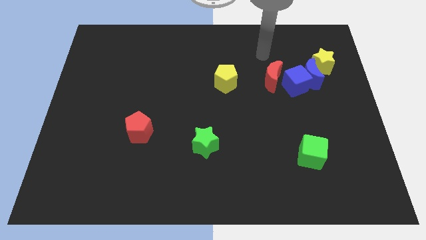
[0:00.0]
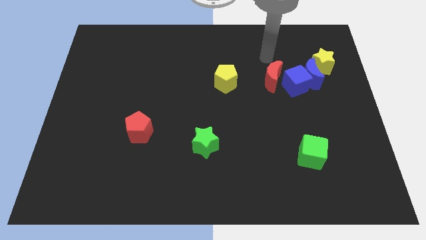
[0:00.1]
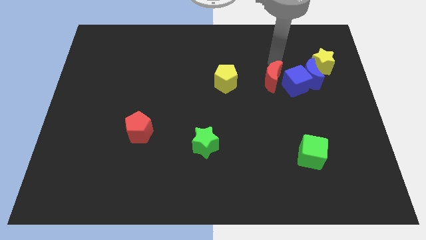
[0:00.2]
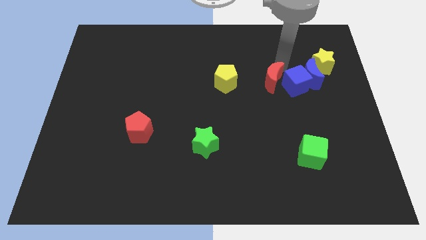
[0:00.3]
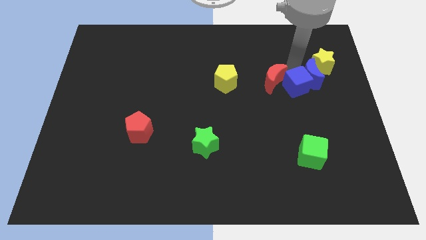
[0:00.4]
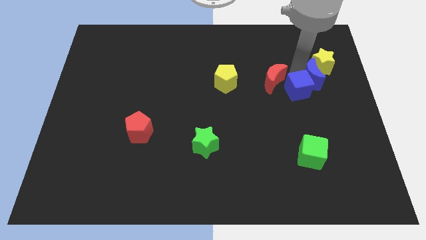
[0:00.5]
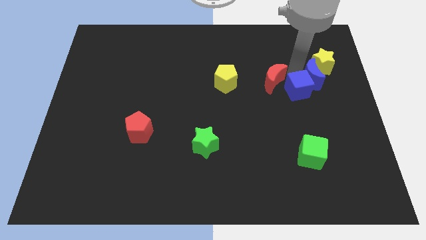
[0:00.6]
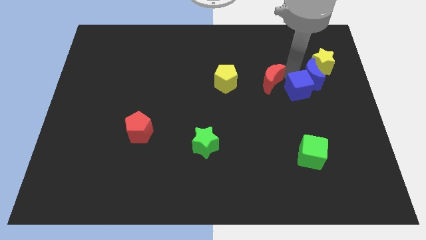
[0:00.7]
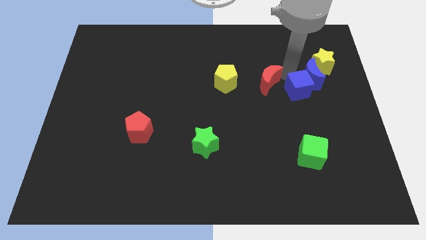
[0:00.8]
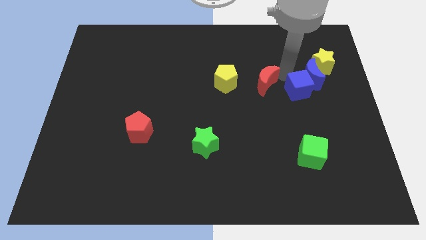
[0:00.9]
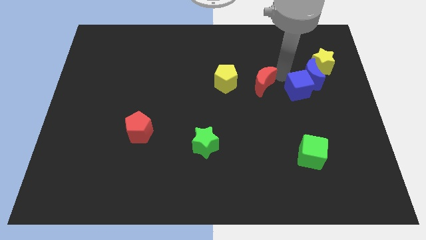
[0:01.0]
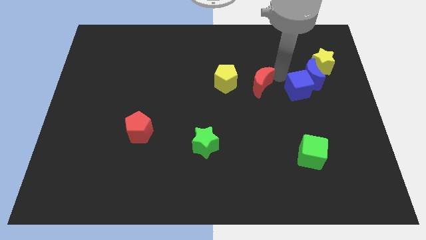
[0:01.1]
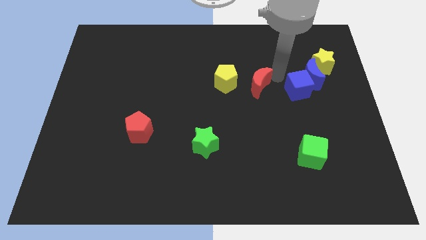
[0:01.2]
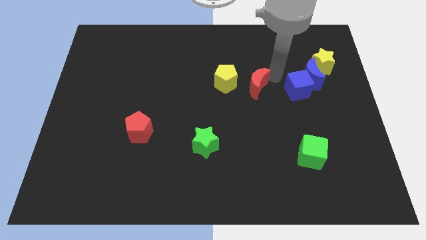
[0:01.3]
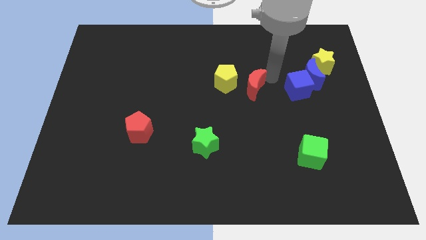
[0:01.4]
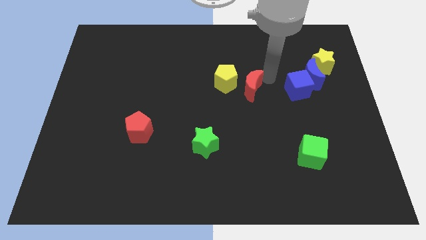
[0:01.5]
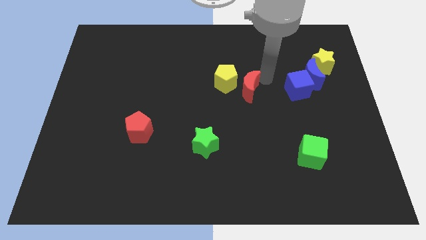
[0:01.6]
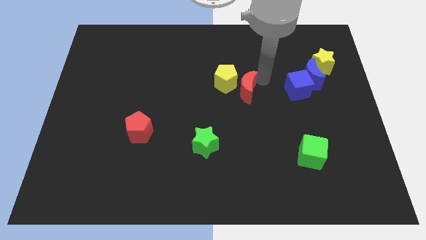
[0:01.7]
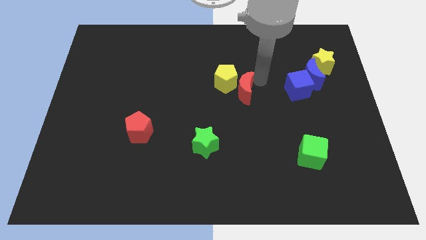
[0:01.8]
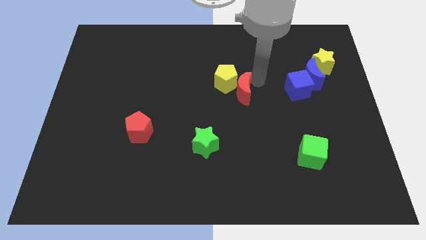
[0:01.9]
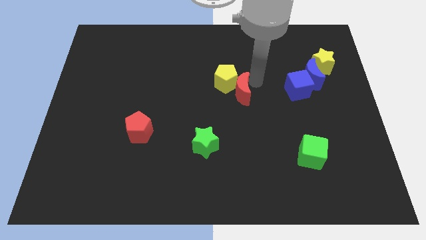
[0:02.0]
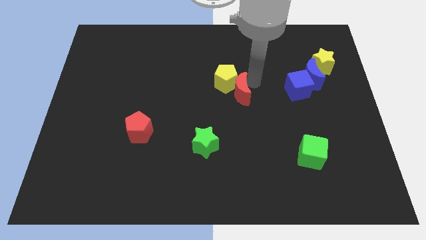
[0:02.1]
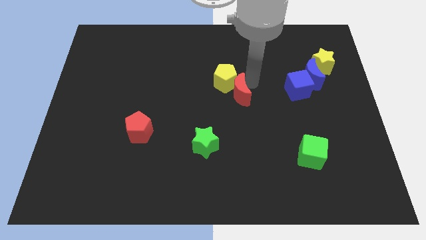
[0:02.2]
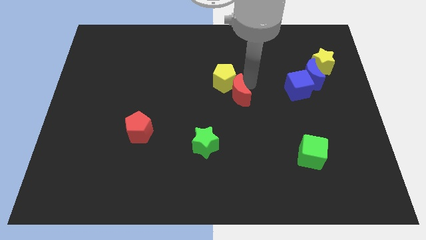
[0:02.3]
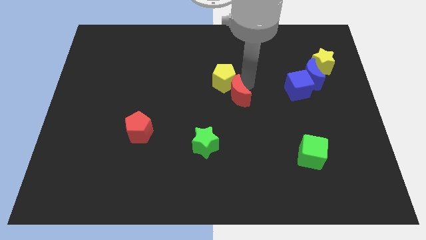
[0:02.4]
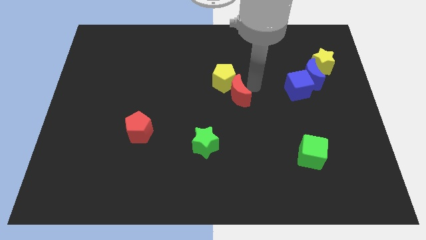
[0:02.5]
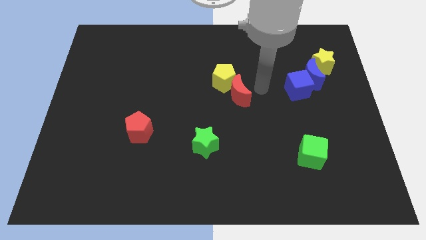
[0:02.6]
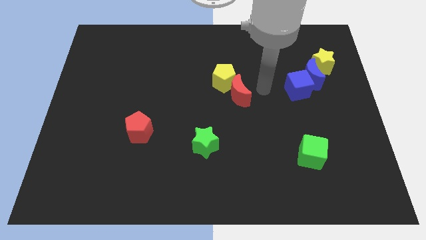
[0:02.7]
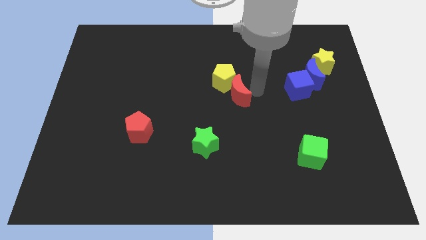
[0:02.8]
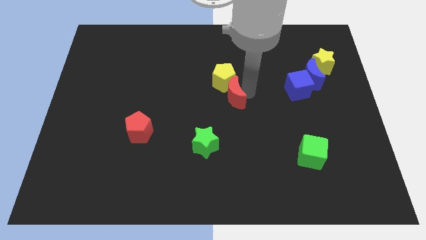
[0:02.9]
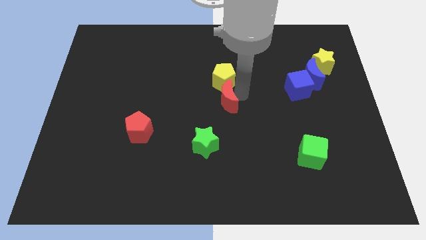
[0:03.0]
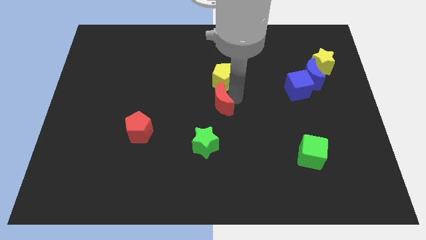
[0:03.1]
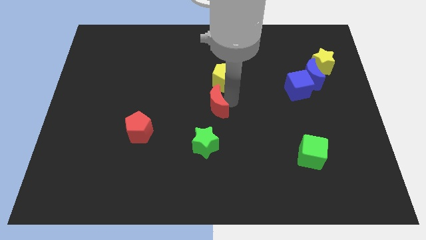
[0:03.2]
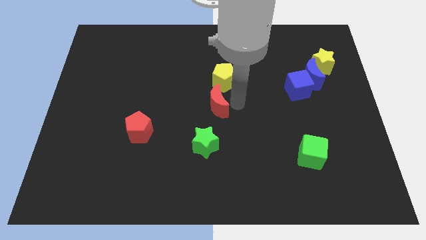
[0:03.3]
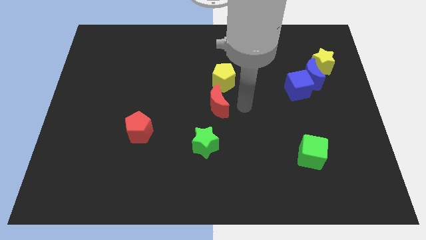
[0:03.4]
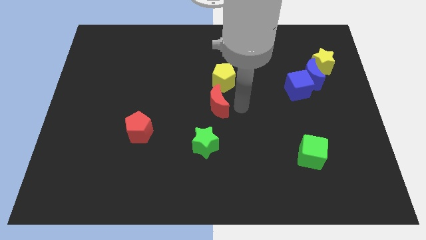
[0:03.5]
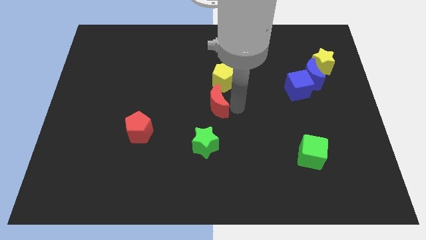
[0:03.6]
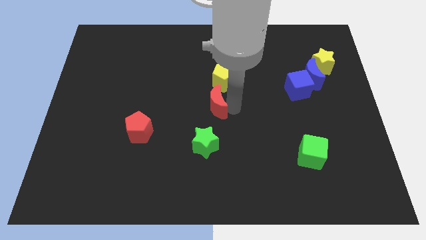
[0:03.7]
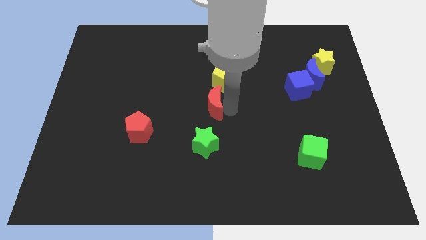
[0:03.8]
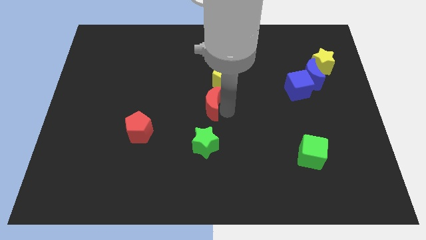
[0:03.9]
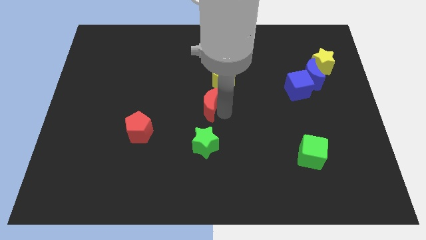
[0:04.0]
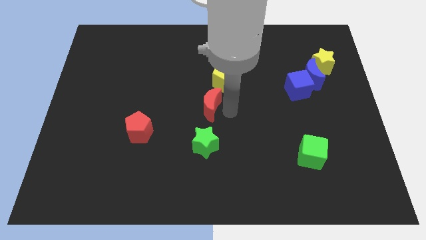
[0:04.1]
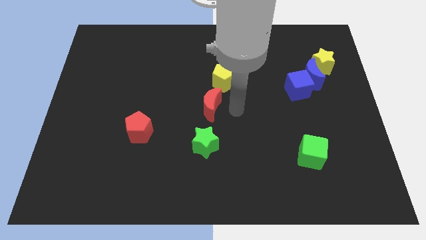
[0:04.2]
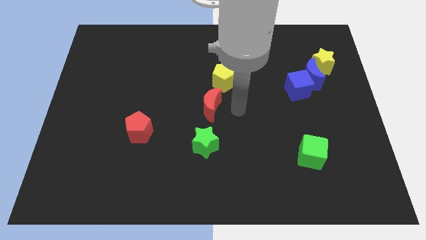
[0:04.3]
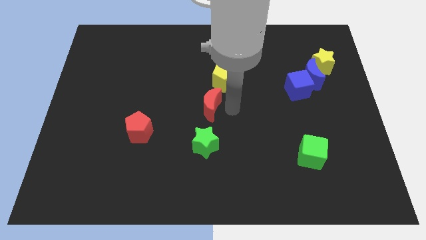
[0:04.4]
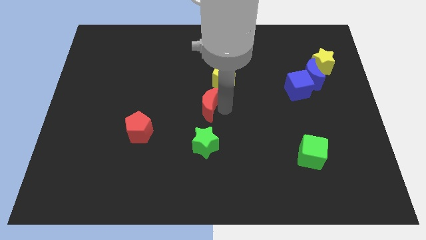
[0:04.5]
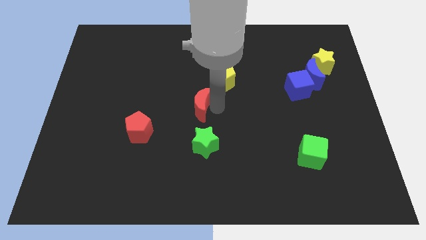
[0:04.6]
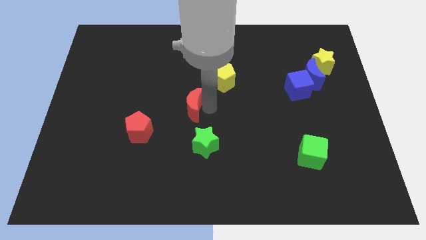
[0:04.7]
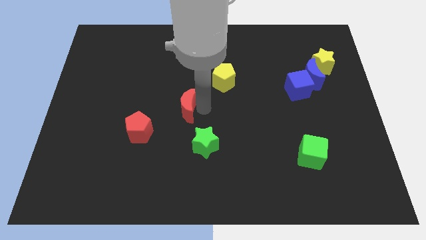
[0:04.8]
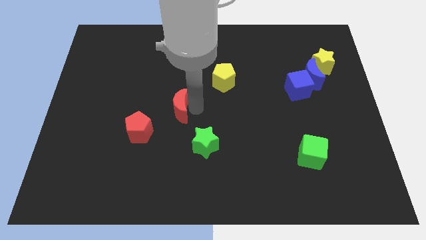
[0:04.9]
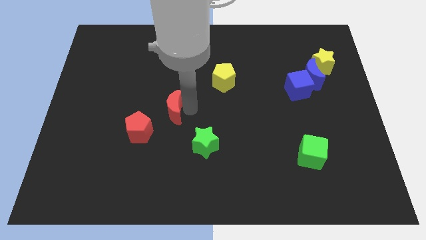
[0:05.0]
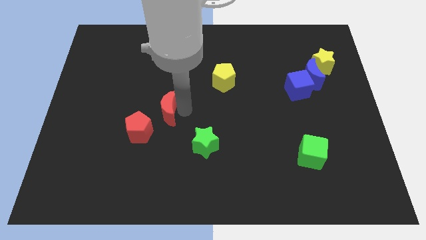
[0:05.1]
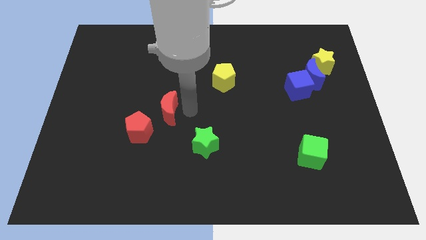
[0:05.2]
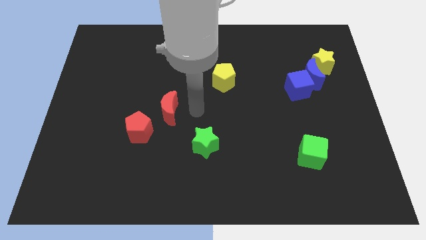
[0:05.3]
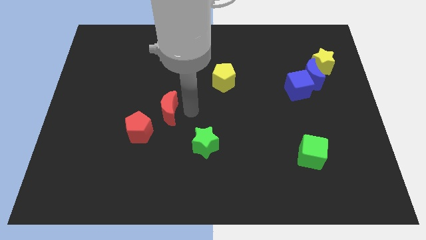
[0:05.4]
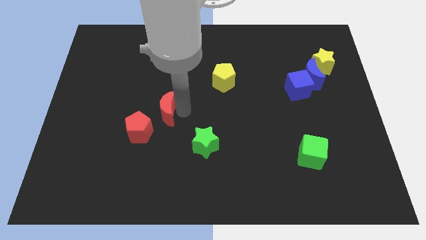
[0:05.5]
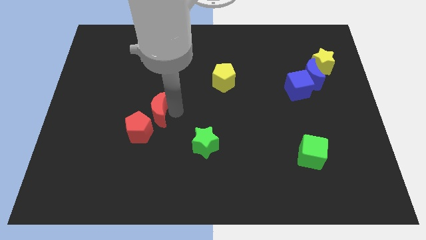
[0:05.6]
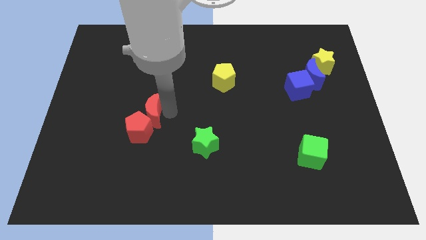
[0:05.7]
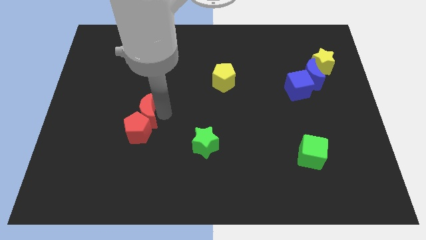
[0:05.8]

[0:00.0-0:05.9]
put the red moon diagonally up and to the left of the red pentagon
